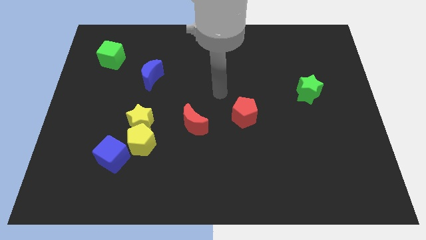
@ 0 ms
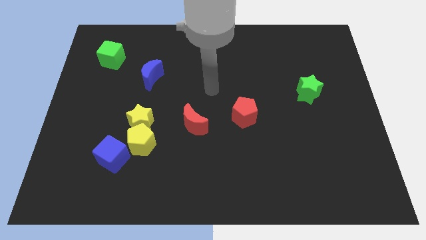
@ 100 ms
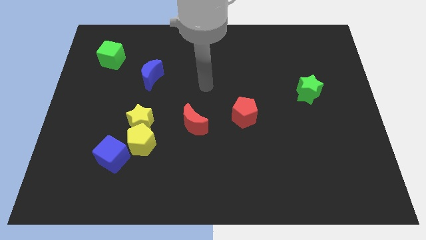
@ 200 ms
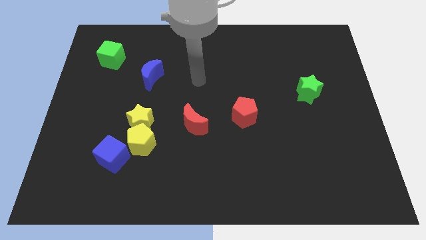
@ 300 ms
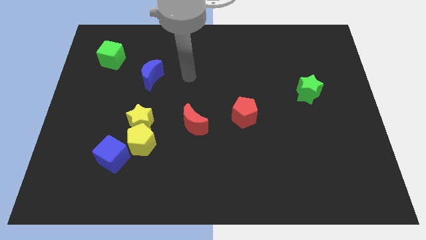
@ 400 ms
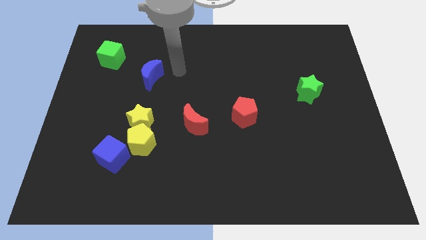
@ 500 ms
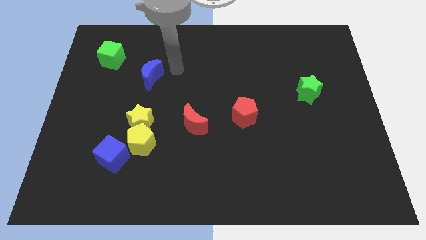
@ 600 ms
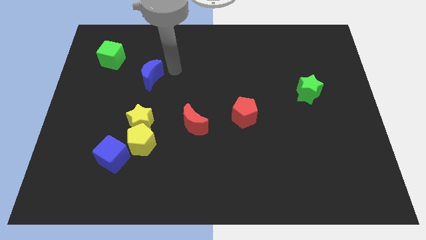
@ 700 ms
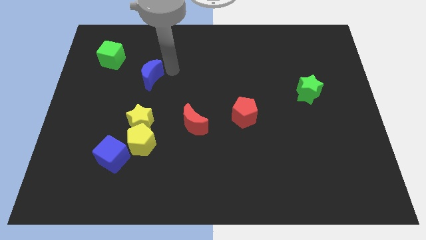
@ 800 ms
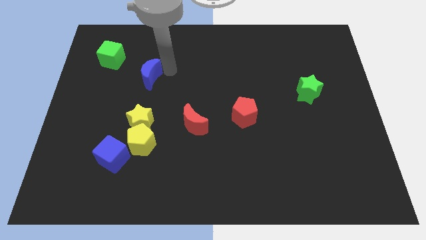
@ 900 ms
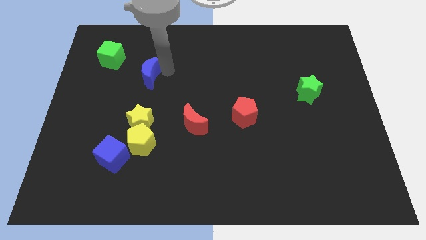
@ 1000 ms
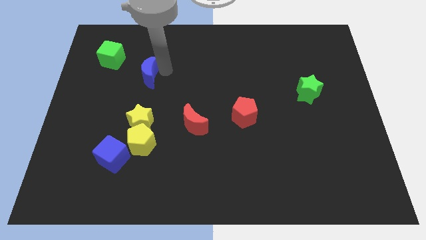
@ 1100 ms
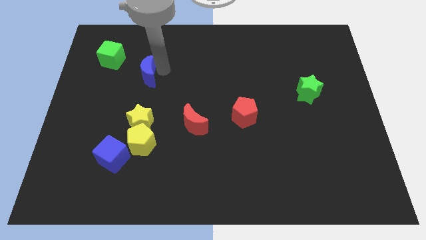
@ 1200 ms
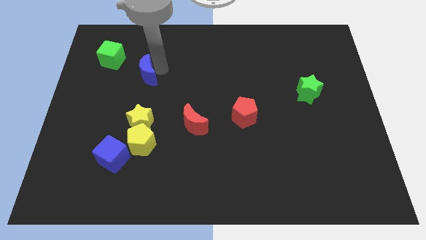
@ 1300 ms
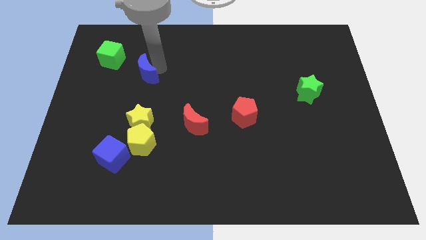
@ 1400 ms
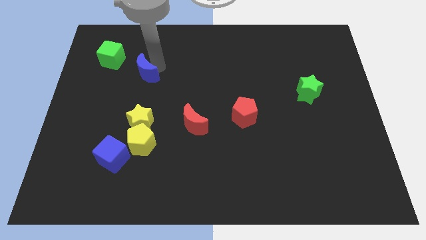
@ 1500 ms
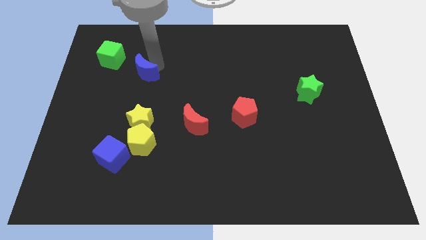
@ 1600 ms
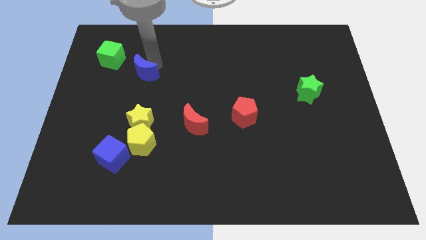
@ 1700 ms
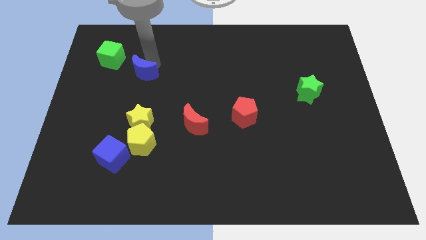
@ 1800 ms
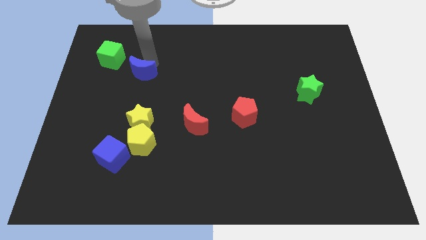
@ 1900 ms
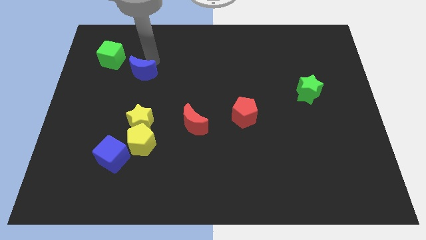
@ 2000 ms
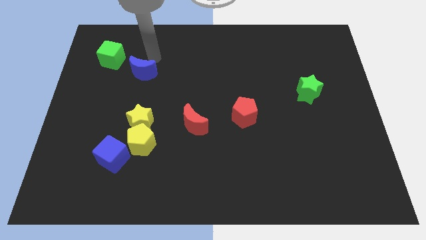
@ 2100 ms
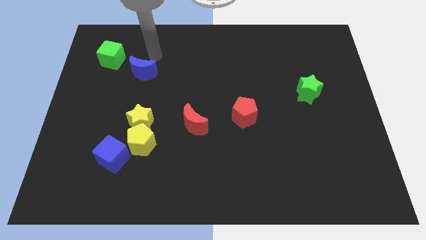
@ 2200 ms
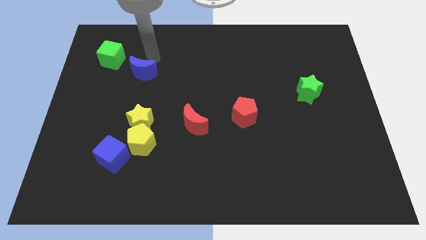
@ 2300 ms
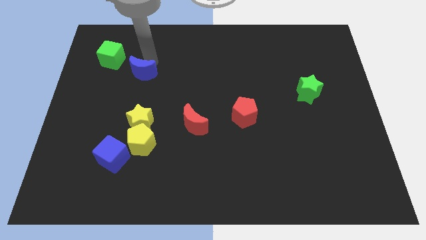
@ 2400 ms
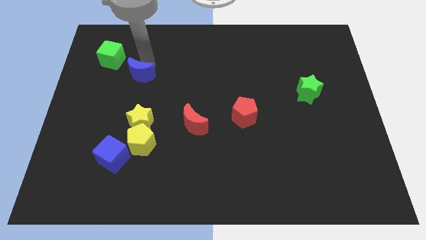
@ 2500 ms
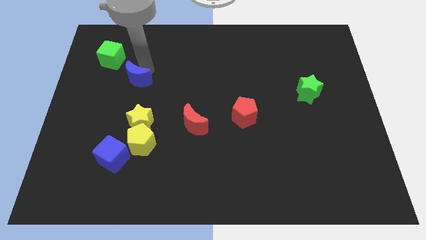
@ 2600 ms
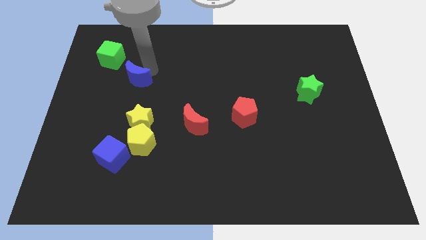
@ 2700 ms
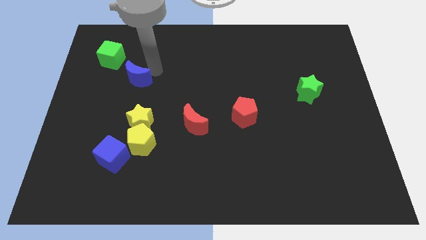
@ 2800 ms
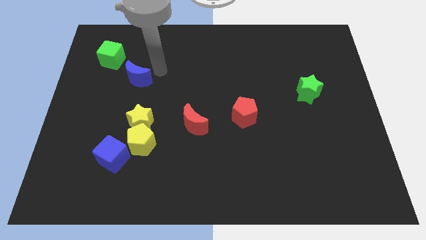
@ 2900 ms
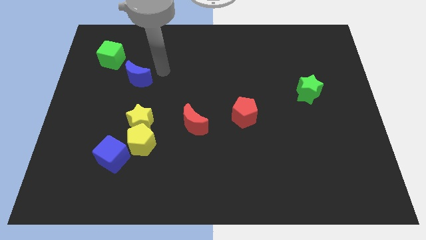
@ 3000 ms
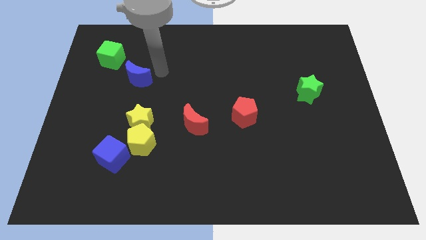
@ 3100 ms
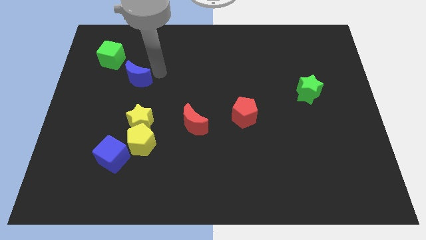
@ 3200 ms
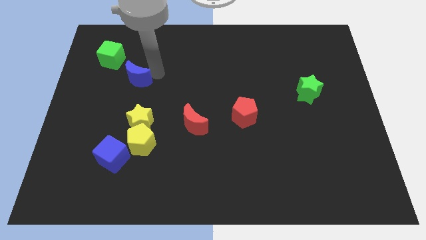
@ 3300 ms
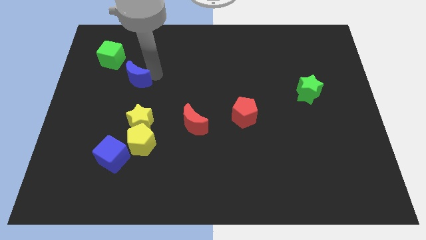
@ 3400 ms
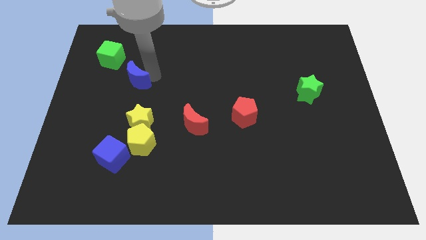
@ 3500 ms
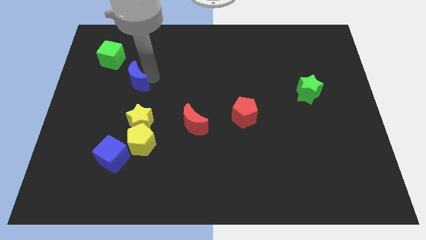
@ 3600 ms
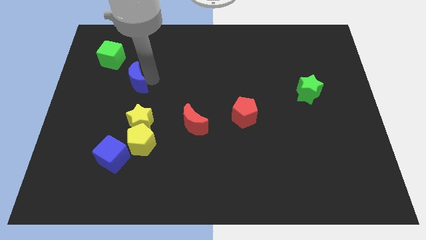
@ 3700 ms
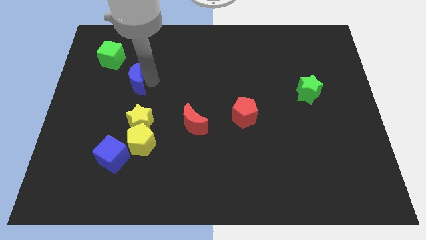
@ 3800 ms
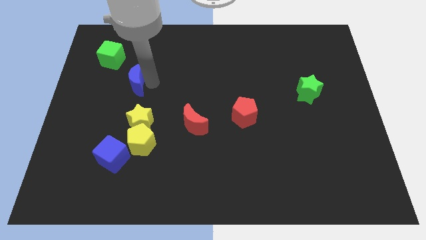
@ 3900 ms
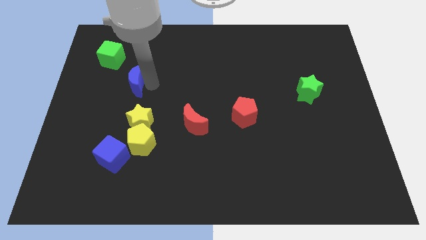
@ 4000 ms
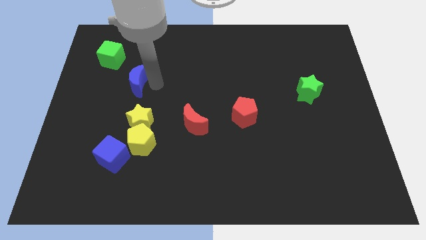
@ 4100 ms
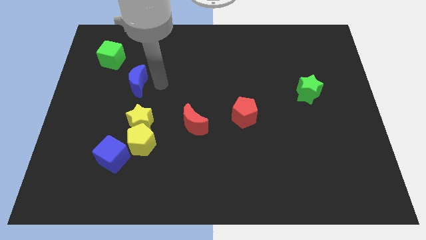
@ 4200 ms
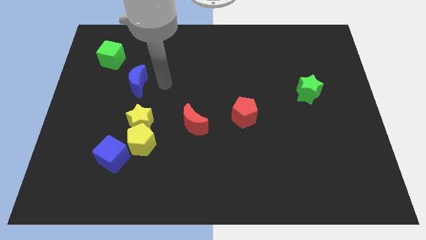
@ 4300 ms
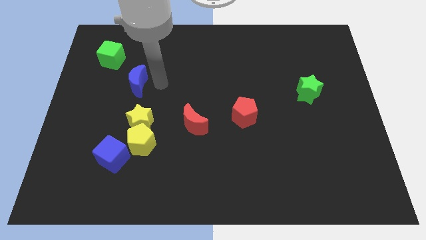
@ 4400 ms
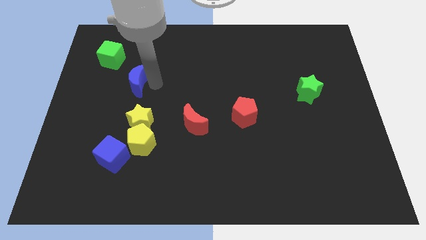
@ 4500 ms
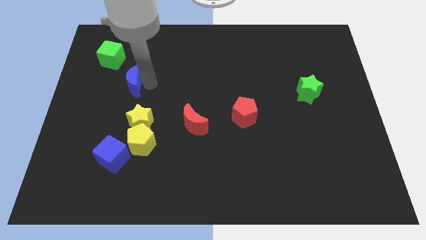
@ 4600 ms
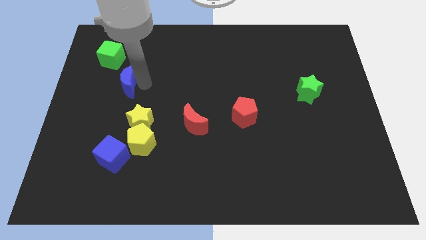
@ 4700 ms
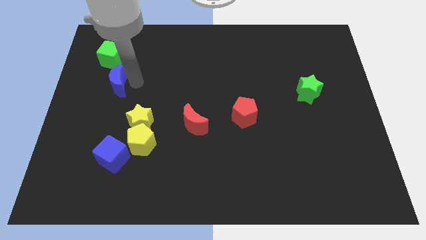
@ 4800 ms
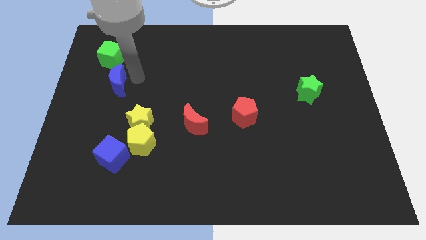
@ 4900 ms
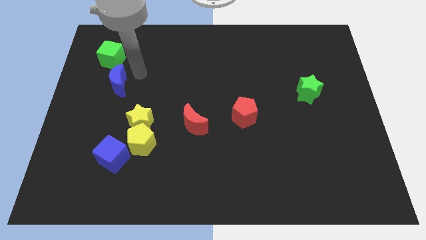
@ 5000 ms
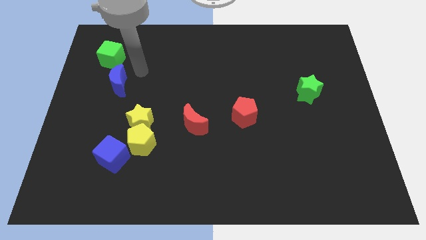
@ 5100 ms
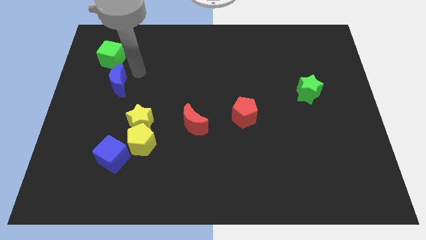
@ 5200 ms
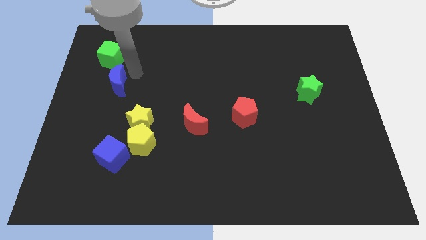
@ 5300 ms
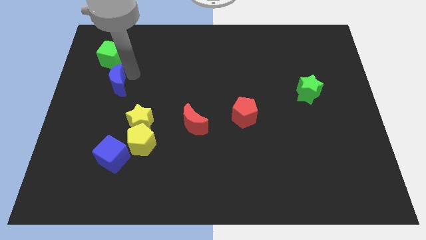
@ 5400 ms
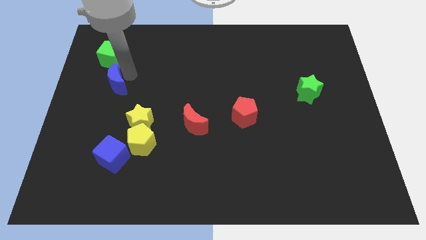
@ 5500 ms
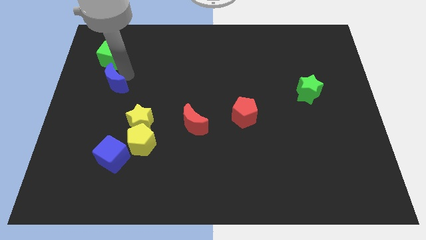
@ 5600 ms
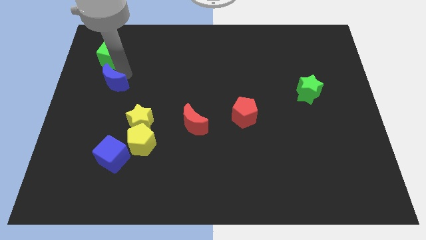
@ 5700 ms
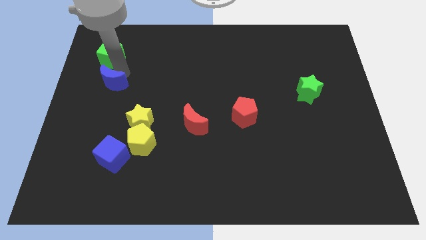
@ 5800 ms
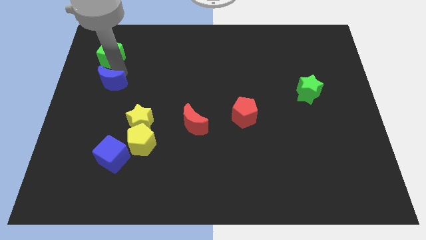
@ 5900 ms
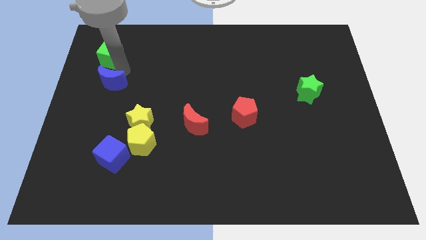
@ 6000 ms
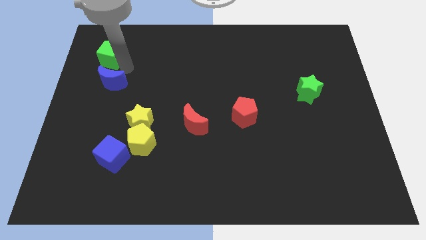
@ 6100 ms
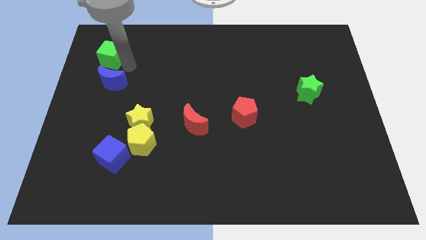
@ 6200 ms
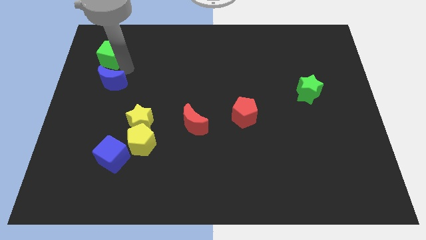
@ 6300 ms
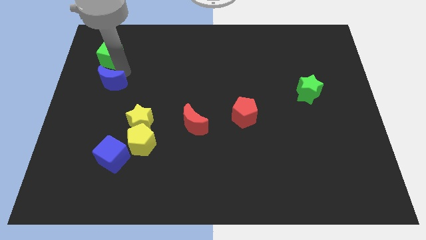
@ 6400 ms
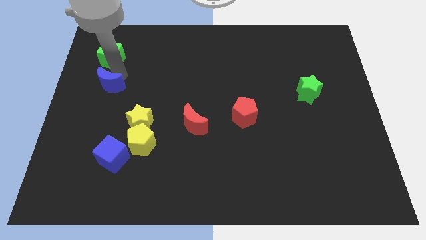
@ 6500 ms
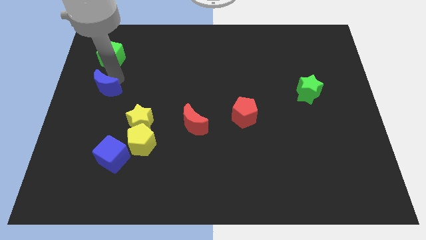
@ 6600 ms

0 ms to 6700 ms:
push the blue moon to the center left

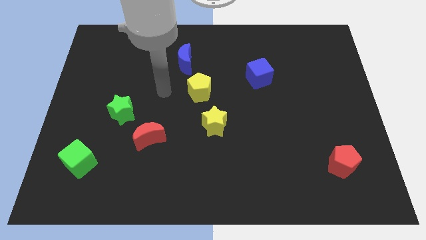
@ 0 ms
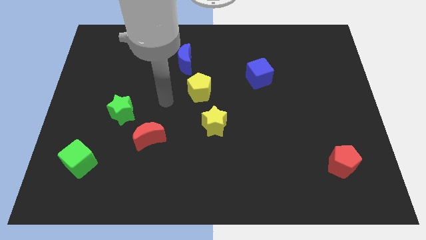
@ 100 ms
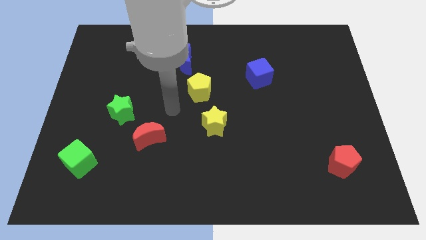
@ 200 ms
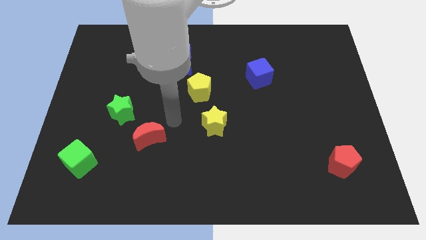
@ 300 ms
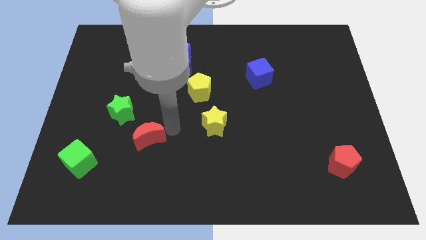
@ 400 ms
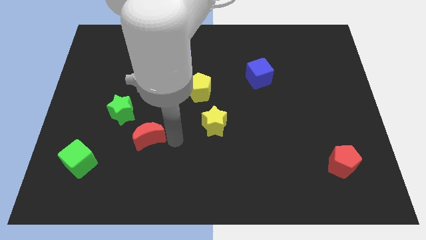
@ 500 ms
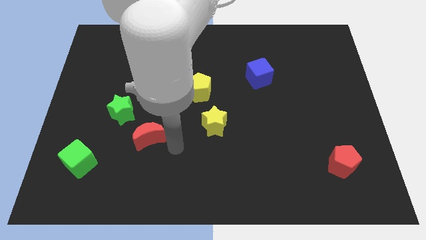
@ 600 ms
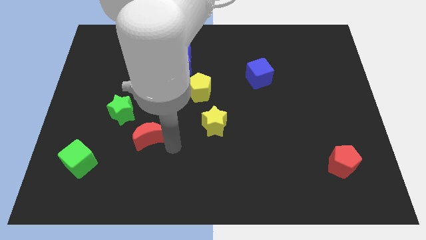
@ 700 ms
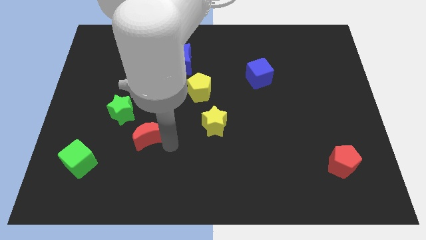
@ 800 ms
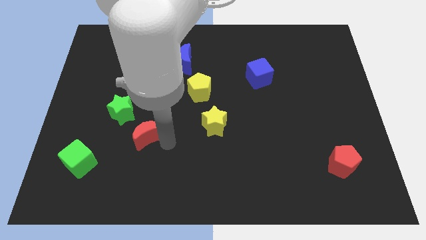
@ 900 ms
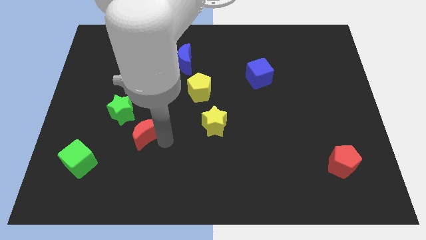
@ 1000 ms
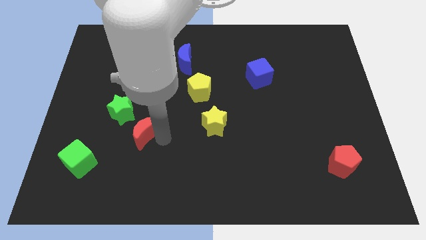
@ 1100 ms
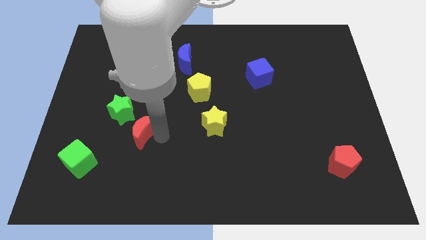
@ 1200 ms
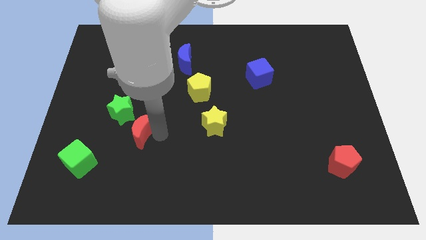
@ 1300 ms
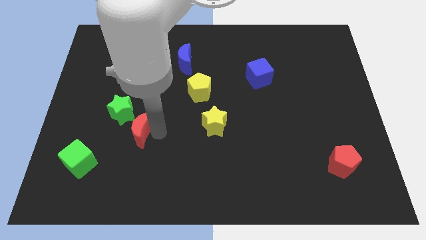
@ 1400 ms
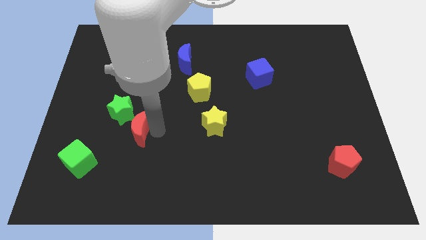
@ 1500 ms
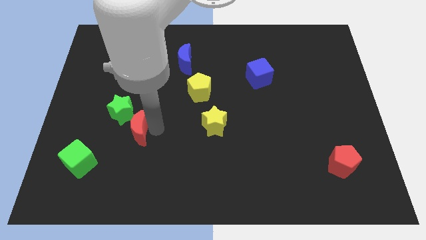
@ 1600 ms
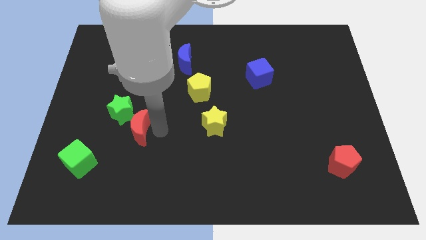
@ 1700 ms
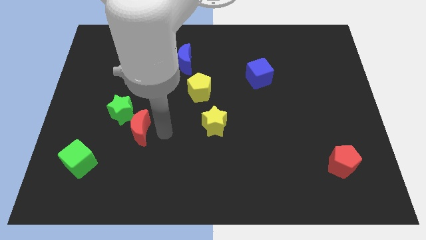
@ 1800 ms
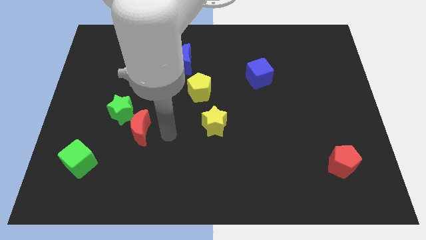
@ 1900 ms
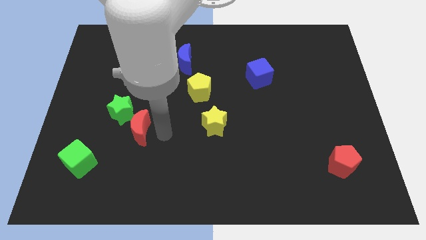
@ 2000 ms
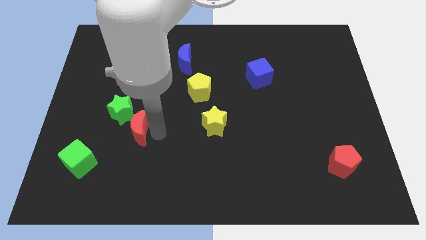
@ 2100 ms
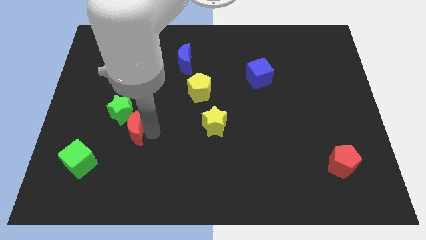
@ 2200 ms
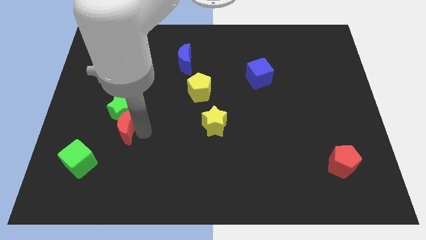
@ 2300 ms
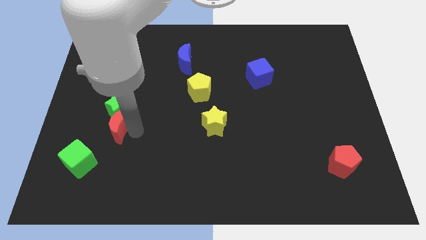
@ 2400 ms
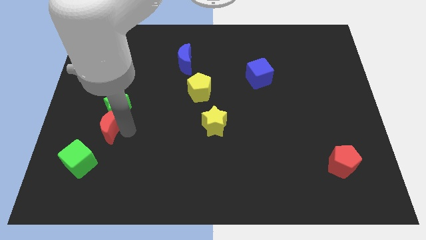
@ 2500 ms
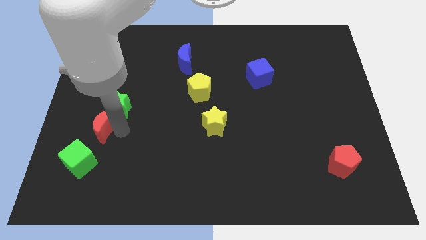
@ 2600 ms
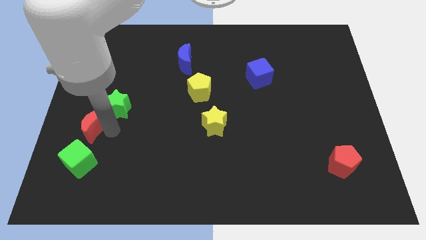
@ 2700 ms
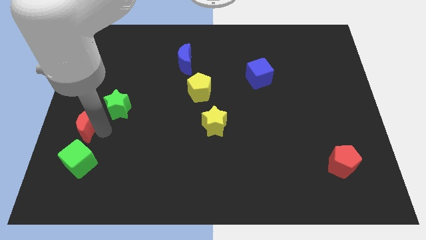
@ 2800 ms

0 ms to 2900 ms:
push the red moon to the left side of the board
